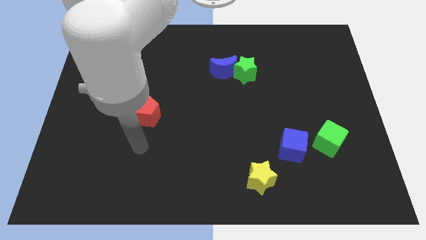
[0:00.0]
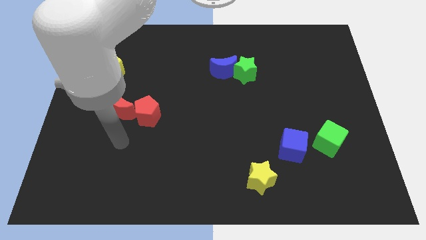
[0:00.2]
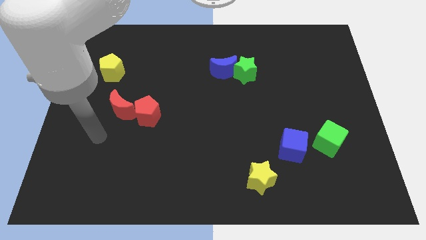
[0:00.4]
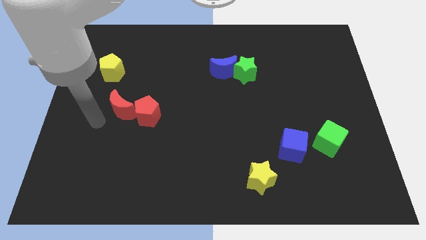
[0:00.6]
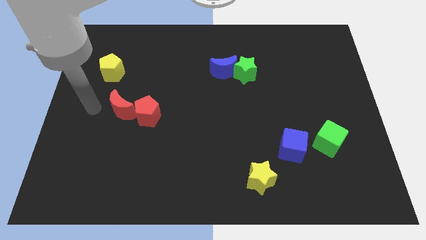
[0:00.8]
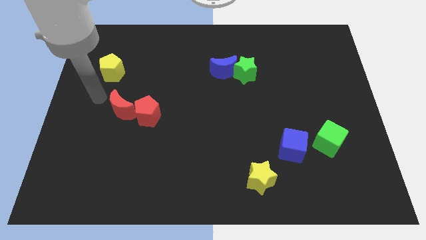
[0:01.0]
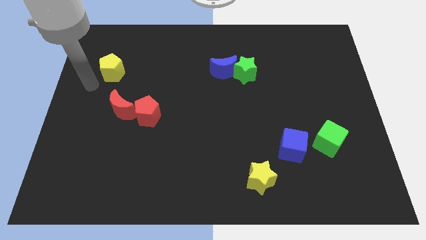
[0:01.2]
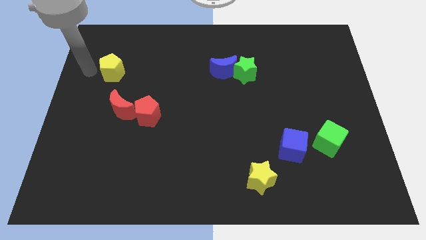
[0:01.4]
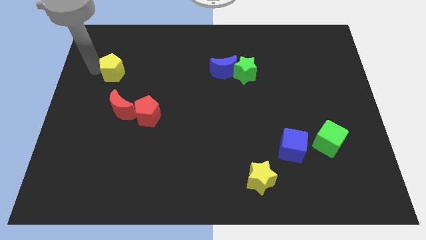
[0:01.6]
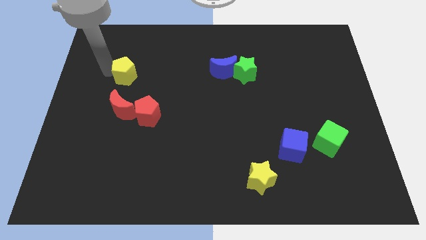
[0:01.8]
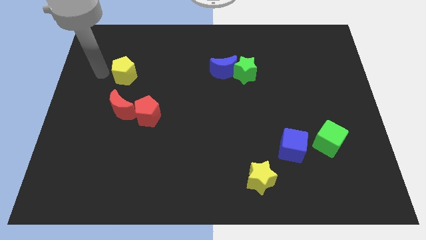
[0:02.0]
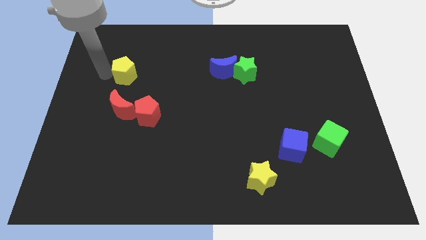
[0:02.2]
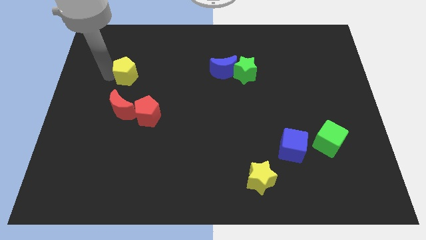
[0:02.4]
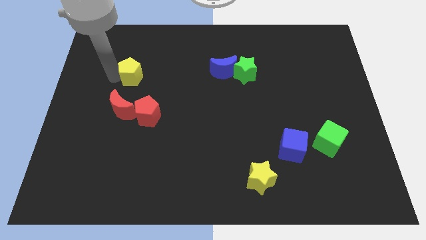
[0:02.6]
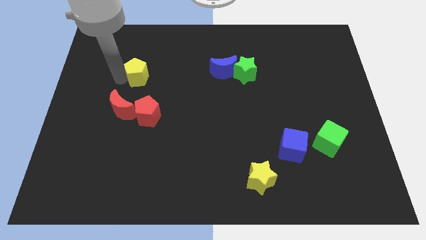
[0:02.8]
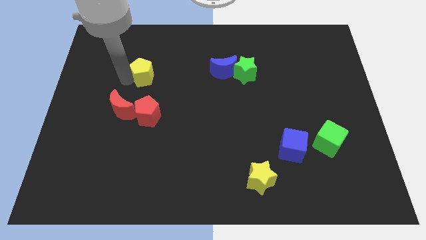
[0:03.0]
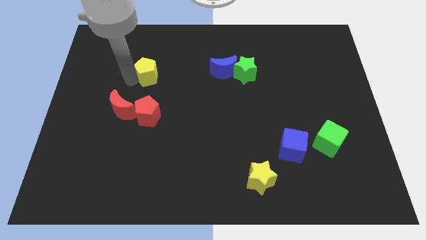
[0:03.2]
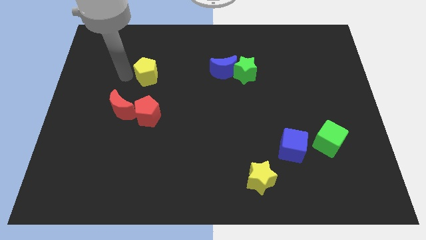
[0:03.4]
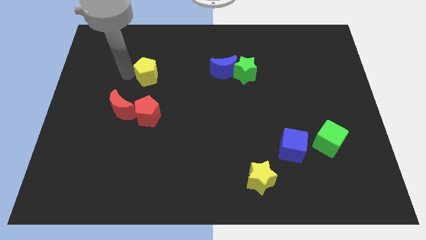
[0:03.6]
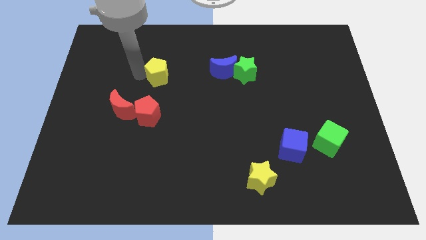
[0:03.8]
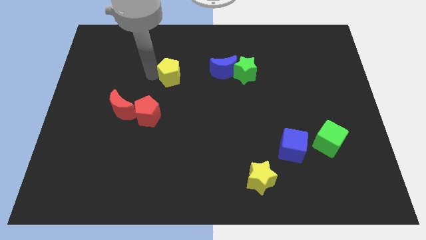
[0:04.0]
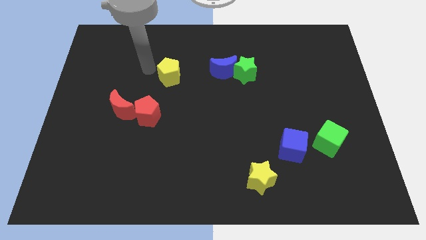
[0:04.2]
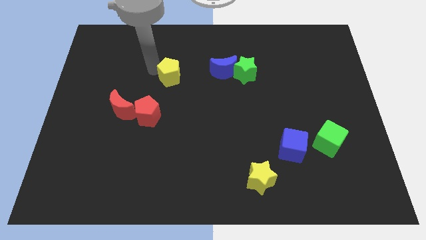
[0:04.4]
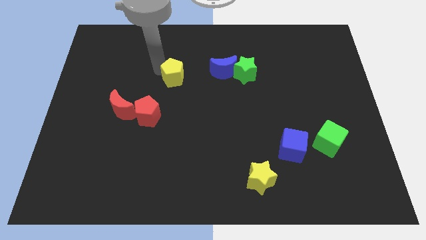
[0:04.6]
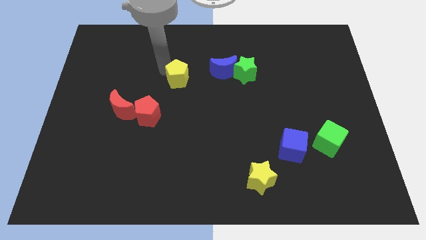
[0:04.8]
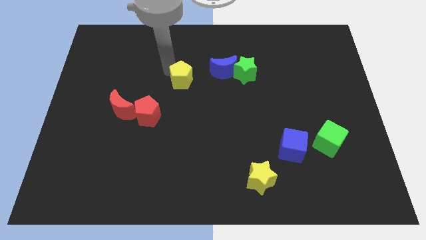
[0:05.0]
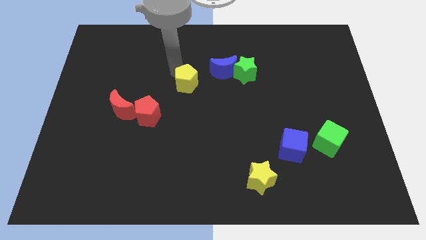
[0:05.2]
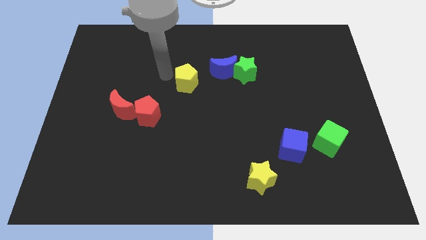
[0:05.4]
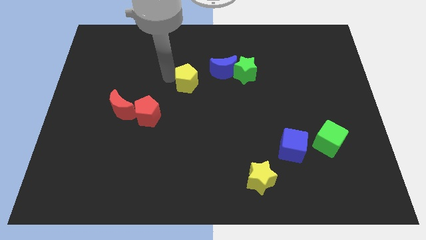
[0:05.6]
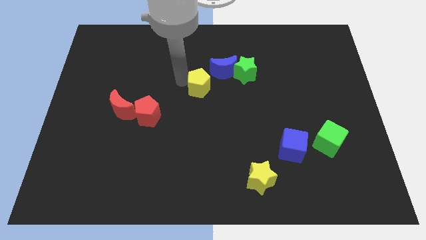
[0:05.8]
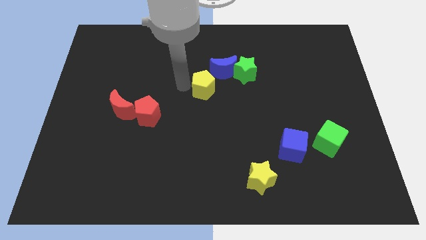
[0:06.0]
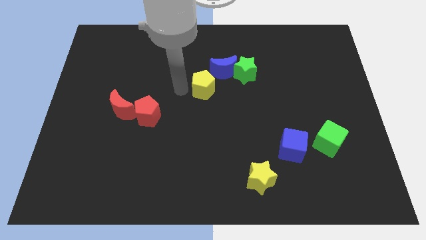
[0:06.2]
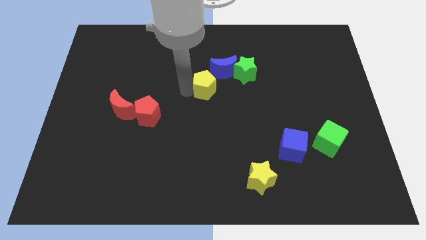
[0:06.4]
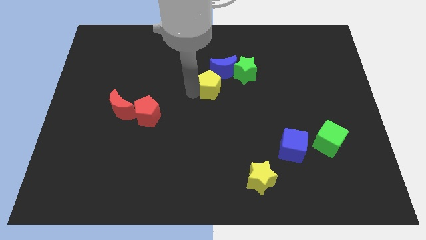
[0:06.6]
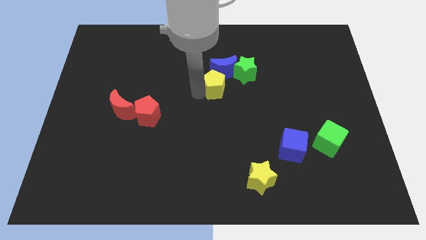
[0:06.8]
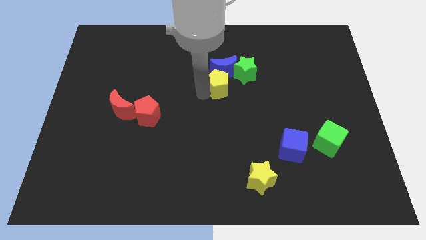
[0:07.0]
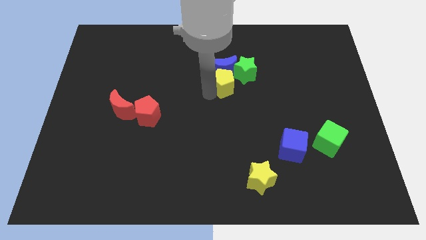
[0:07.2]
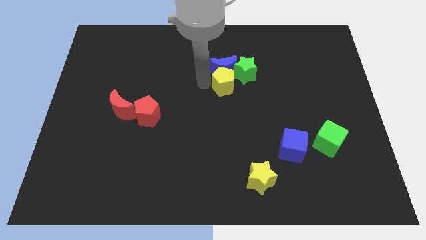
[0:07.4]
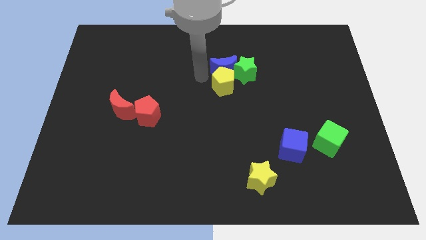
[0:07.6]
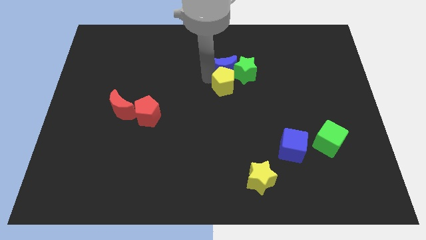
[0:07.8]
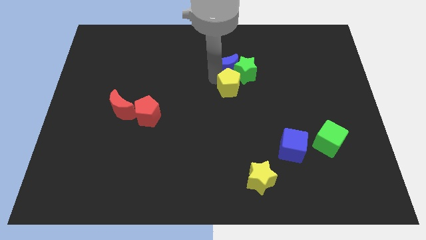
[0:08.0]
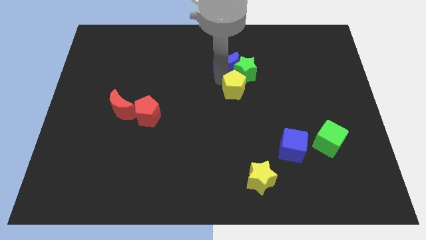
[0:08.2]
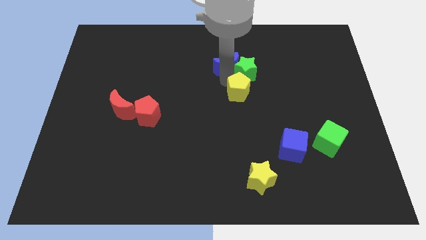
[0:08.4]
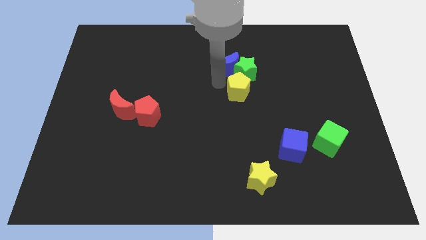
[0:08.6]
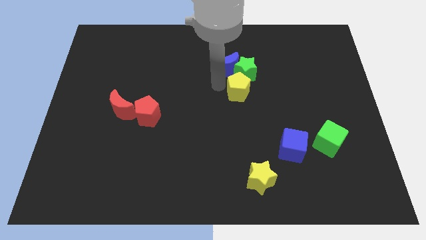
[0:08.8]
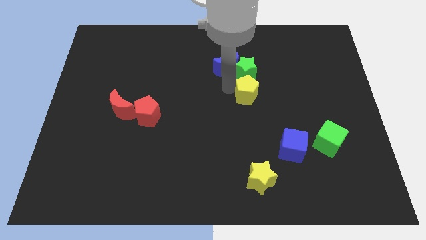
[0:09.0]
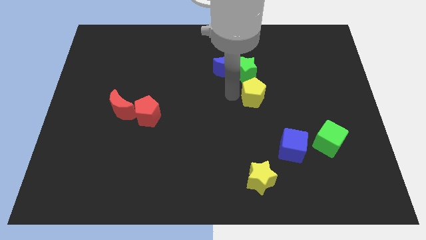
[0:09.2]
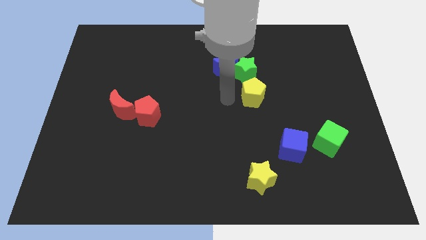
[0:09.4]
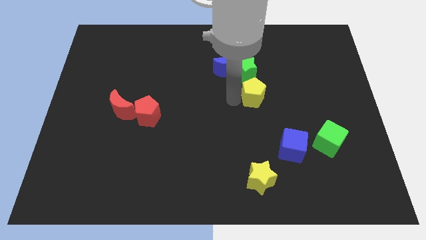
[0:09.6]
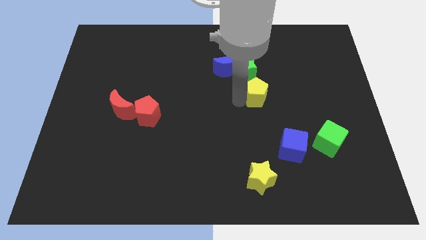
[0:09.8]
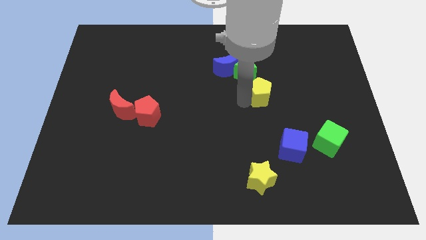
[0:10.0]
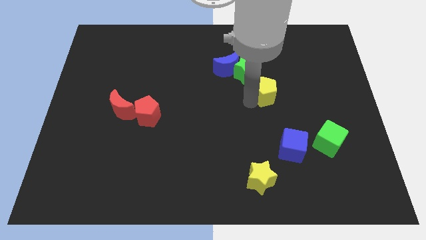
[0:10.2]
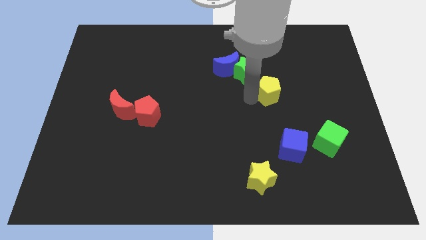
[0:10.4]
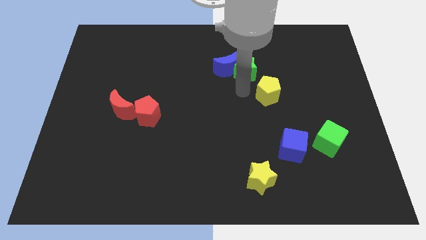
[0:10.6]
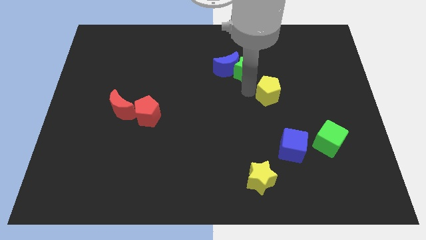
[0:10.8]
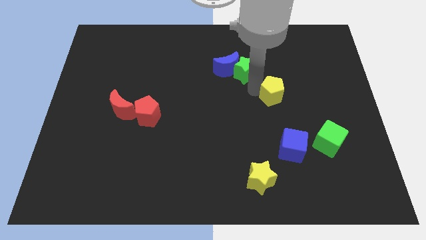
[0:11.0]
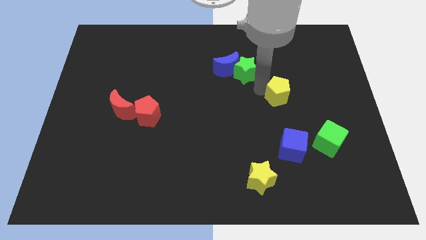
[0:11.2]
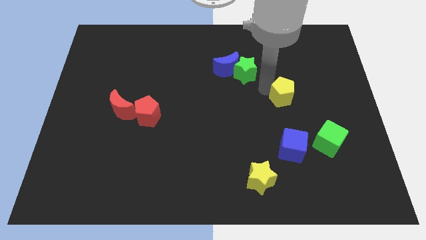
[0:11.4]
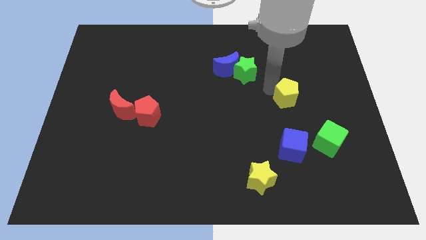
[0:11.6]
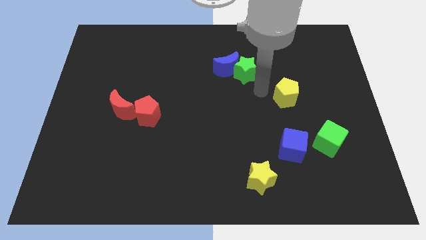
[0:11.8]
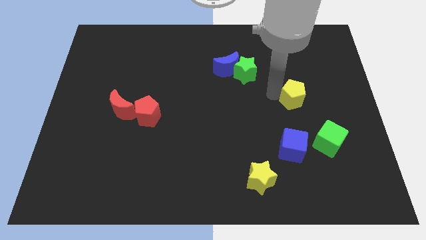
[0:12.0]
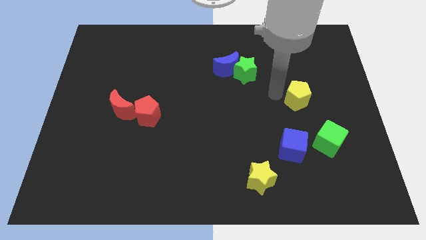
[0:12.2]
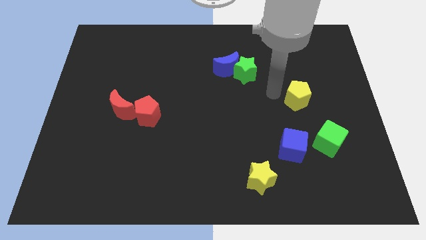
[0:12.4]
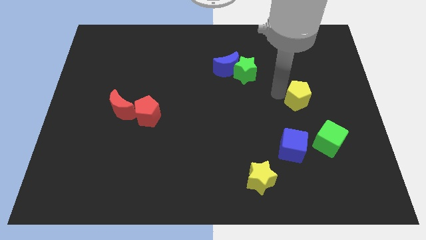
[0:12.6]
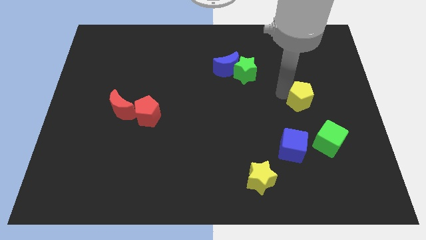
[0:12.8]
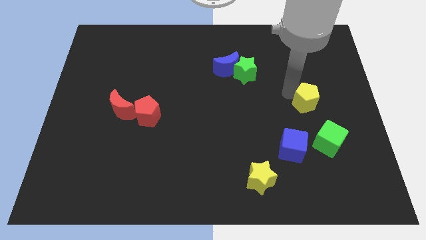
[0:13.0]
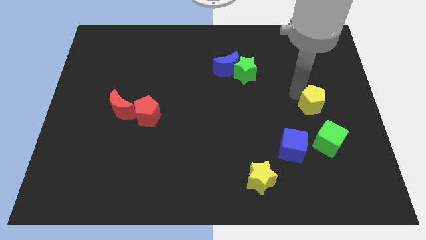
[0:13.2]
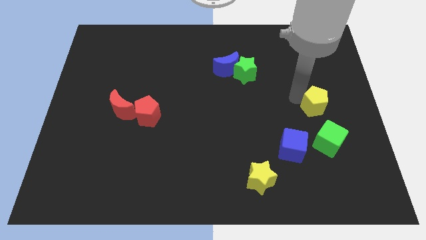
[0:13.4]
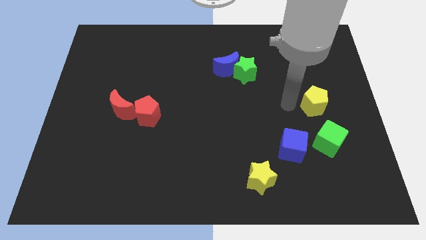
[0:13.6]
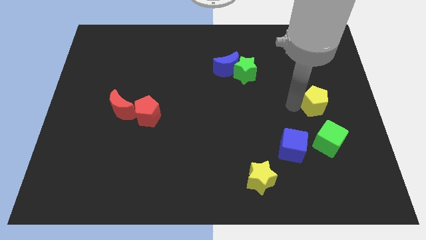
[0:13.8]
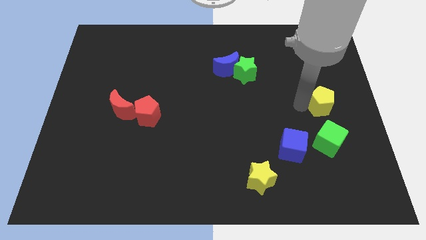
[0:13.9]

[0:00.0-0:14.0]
move the yellow pentagon to the right side
